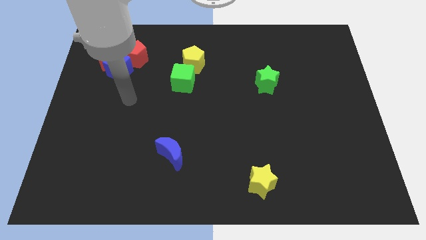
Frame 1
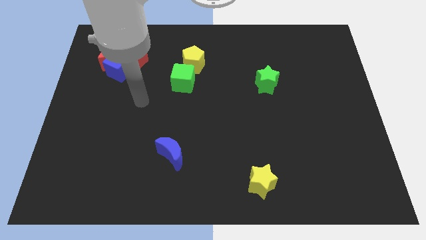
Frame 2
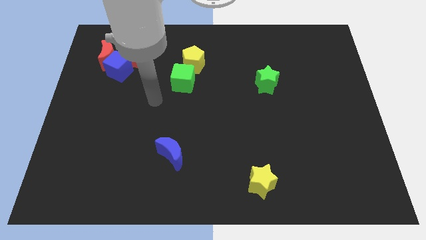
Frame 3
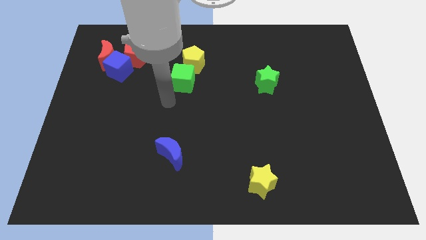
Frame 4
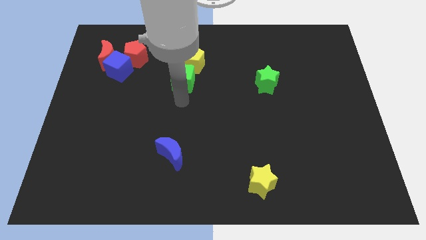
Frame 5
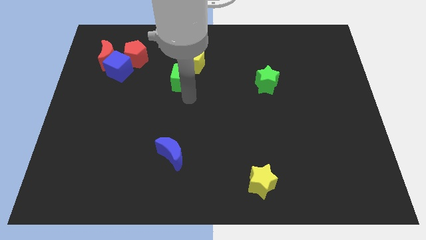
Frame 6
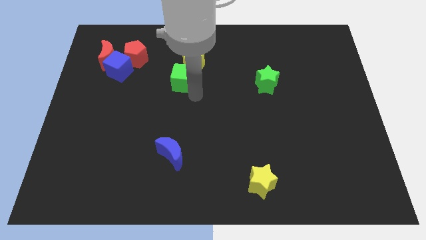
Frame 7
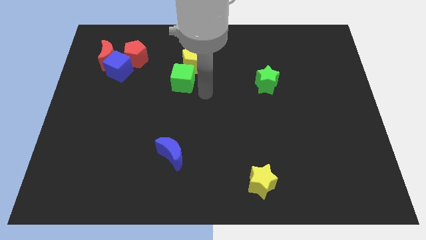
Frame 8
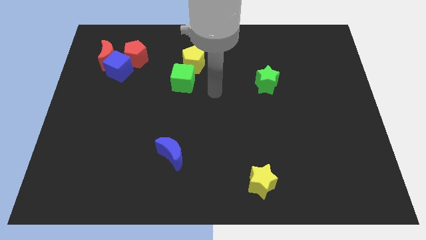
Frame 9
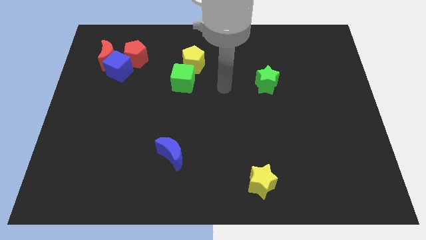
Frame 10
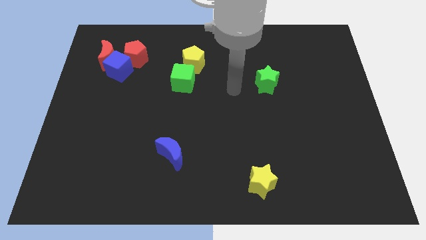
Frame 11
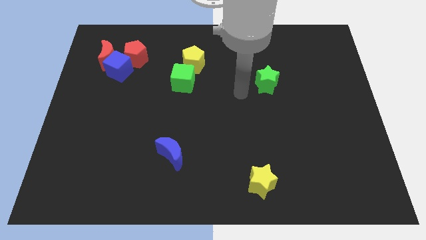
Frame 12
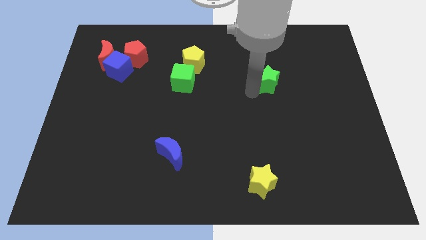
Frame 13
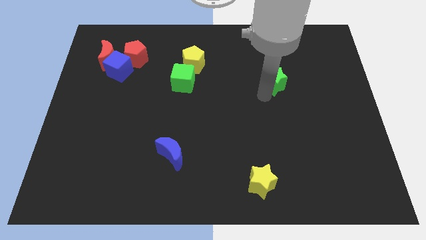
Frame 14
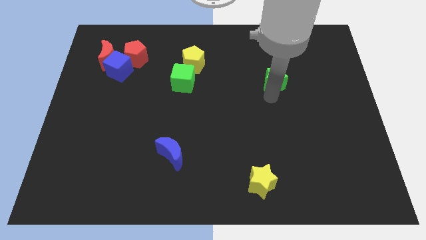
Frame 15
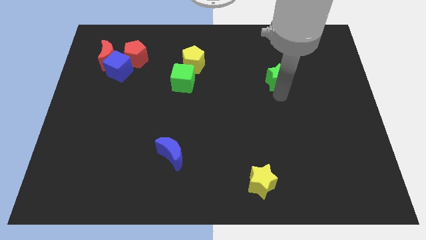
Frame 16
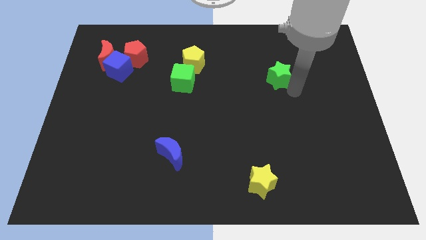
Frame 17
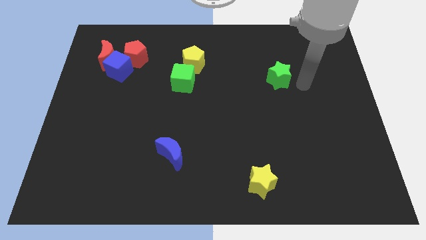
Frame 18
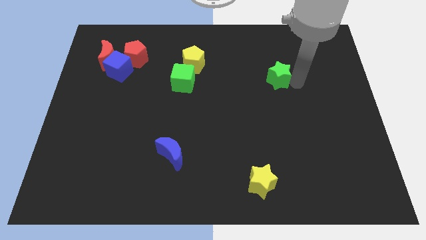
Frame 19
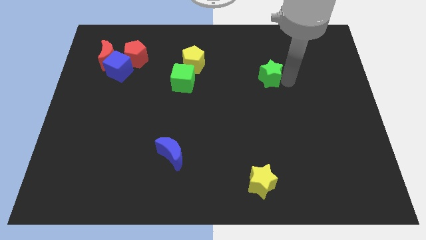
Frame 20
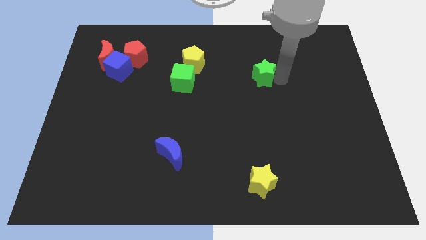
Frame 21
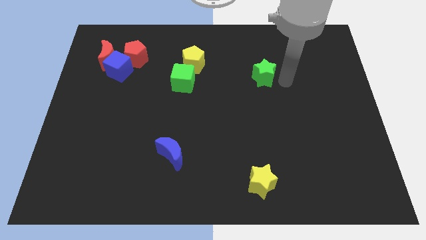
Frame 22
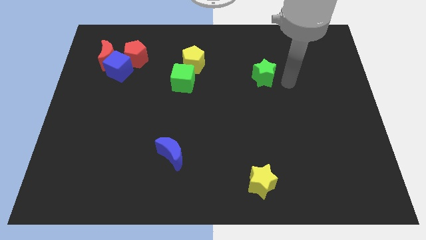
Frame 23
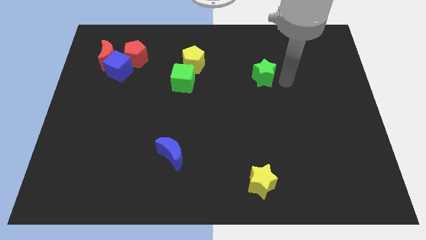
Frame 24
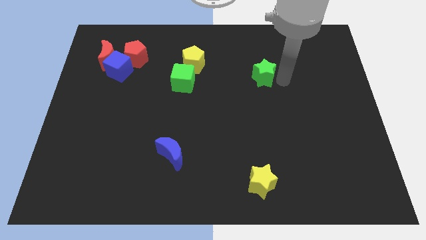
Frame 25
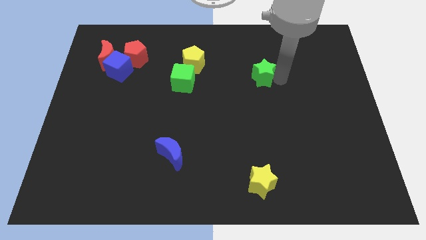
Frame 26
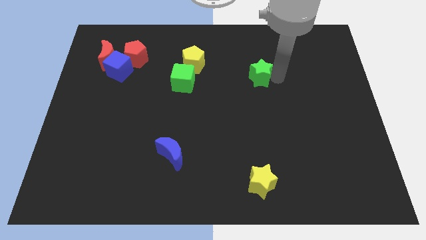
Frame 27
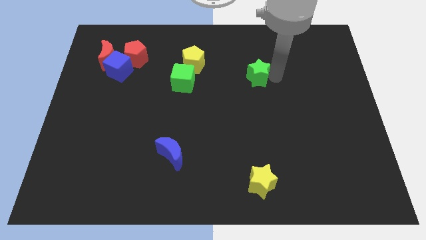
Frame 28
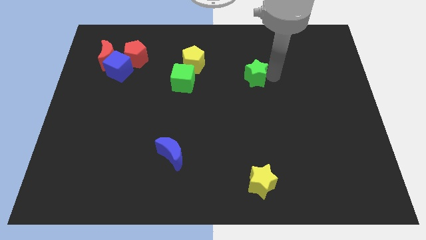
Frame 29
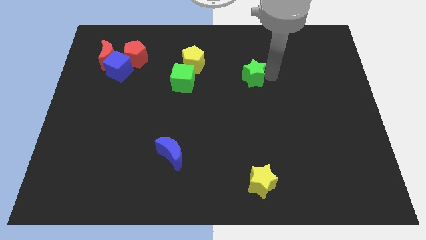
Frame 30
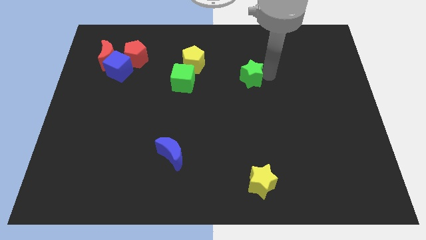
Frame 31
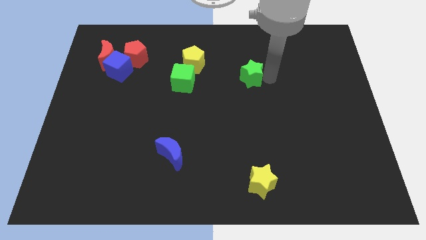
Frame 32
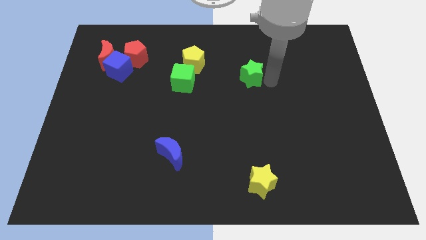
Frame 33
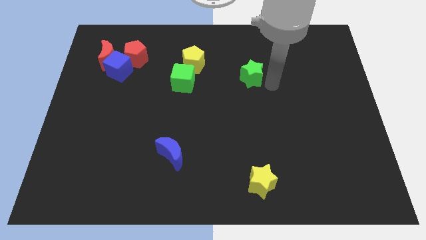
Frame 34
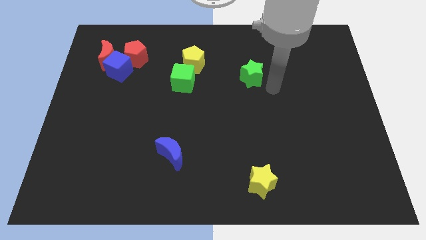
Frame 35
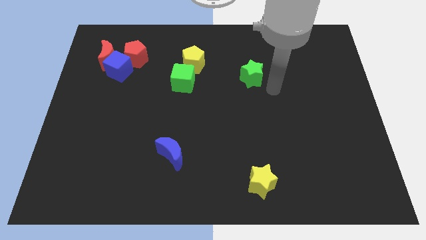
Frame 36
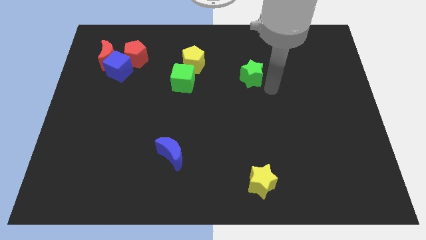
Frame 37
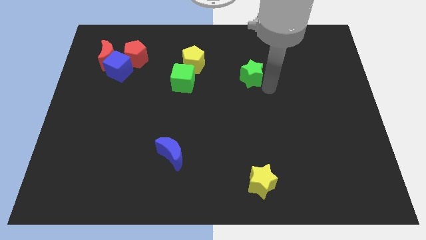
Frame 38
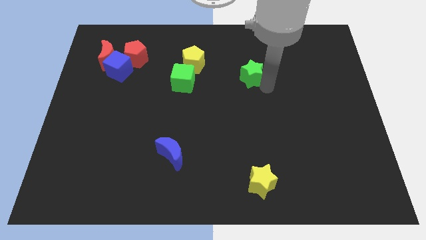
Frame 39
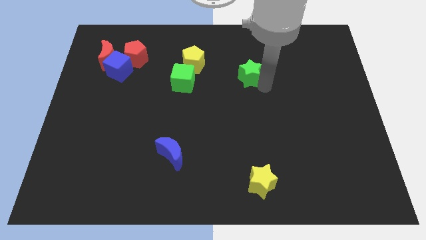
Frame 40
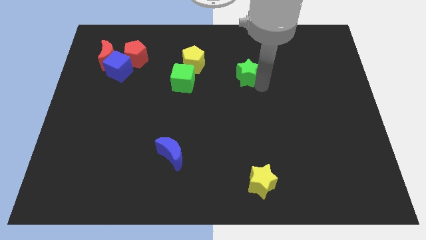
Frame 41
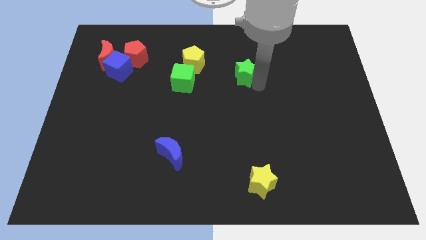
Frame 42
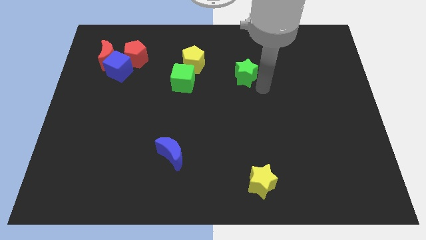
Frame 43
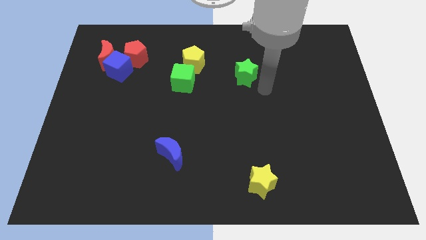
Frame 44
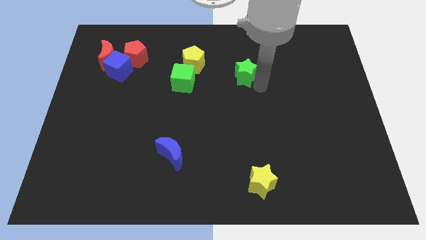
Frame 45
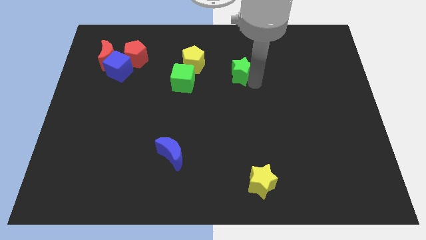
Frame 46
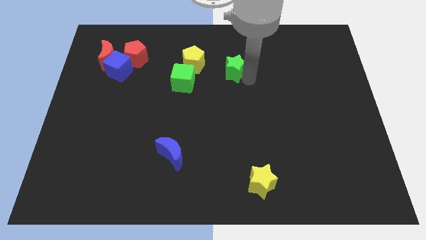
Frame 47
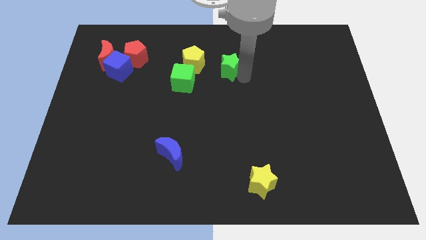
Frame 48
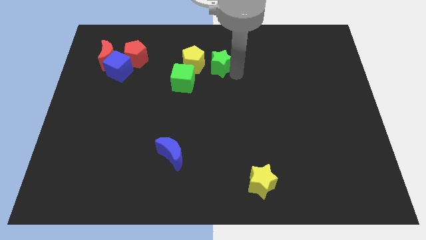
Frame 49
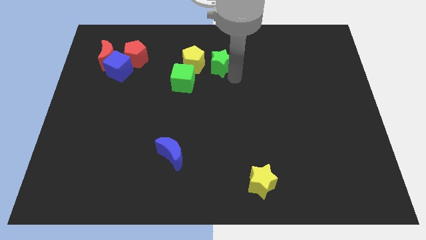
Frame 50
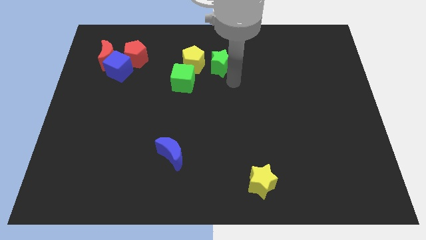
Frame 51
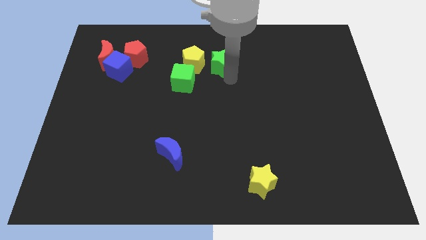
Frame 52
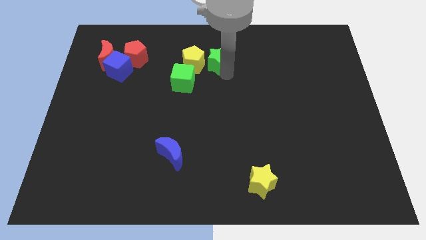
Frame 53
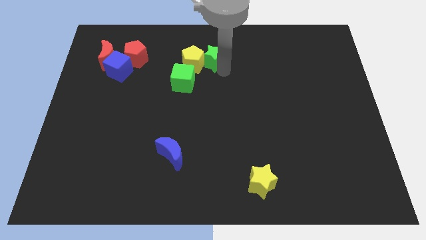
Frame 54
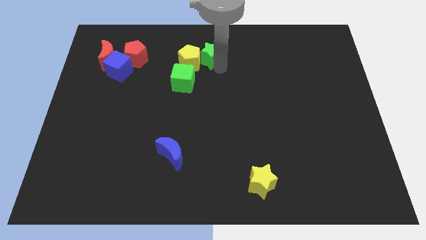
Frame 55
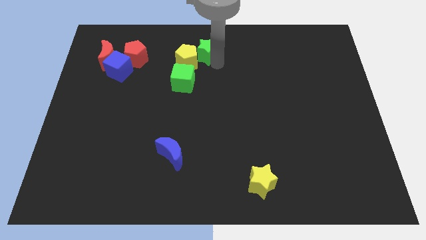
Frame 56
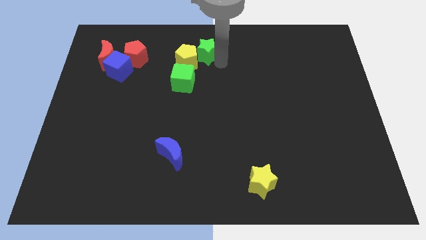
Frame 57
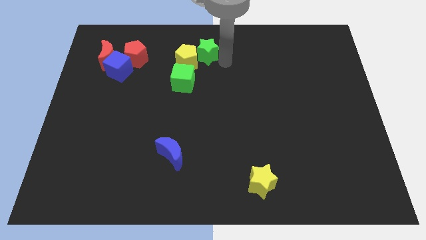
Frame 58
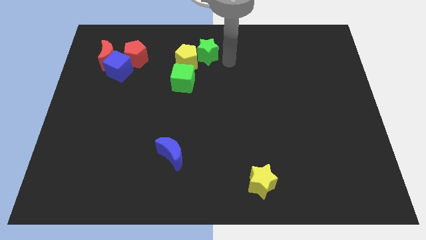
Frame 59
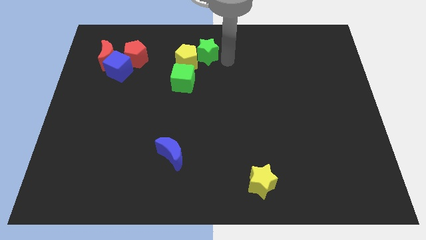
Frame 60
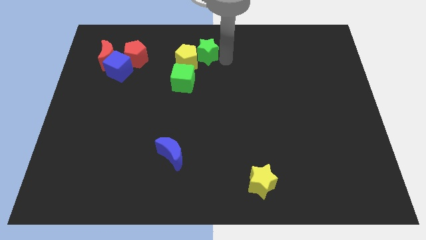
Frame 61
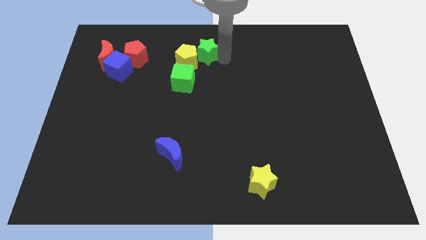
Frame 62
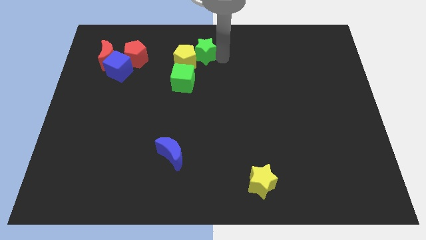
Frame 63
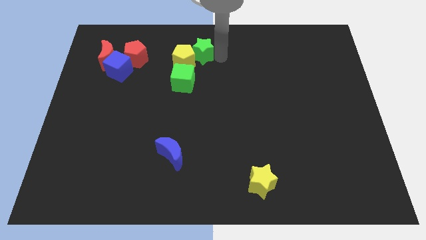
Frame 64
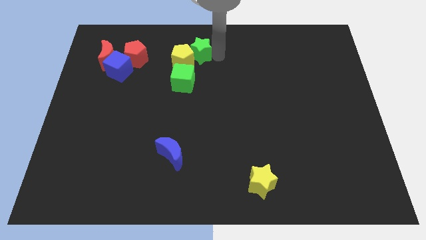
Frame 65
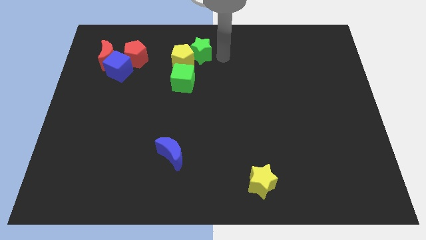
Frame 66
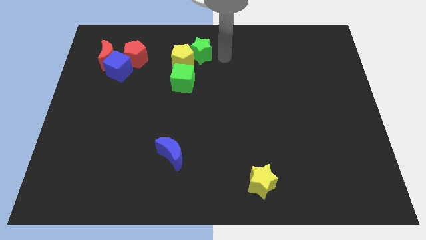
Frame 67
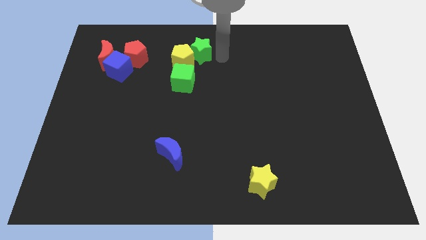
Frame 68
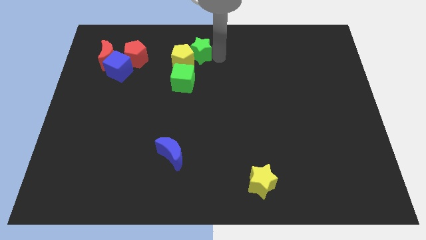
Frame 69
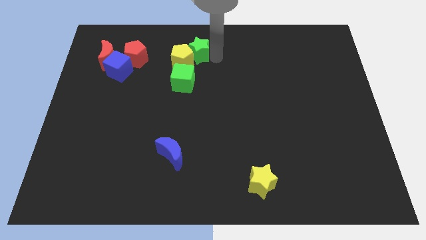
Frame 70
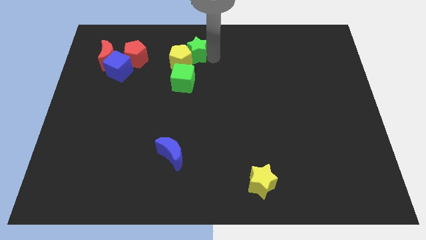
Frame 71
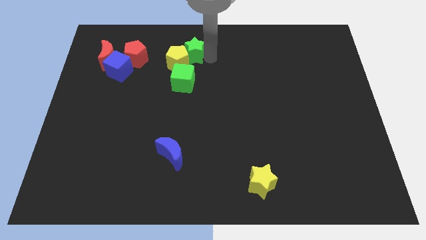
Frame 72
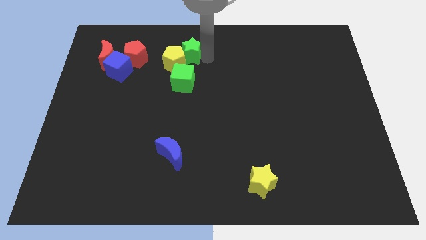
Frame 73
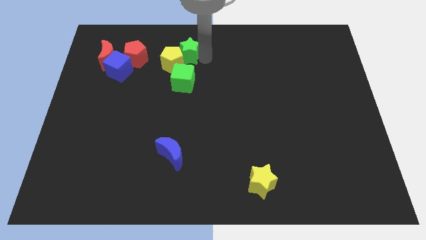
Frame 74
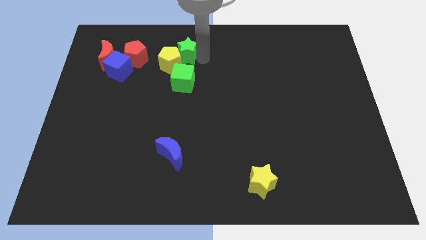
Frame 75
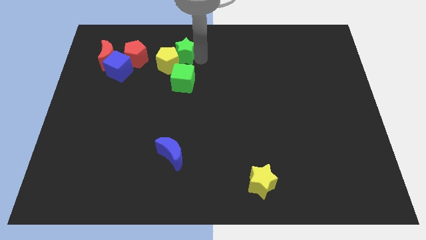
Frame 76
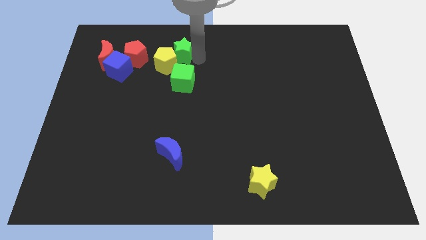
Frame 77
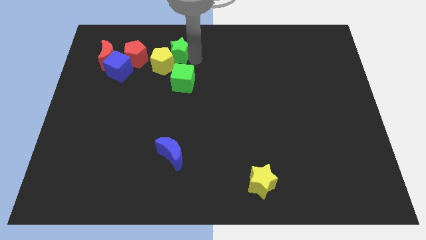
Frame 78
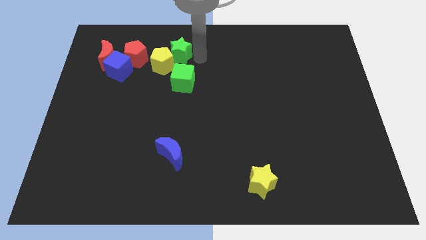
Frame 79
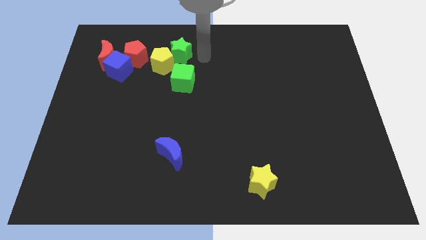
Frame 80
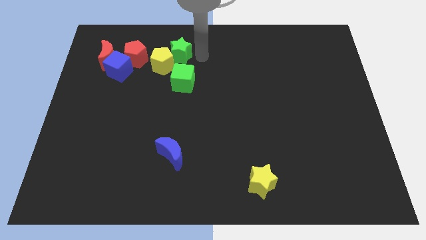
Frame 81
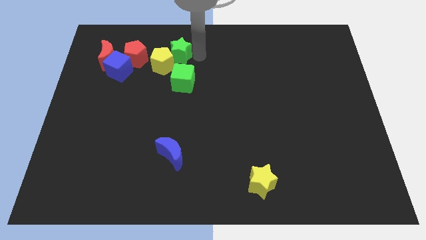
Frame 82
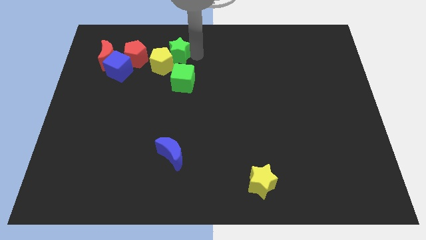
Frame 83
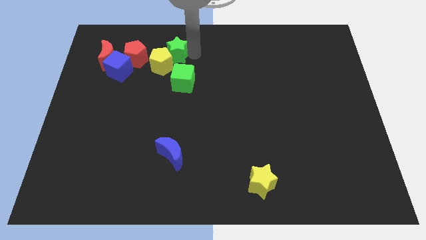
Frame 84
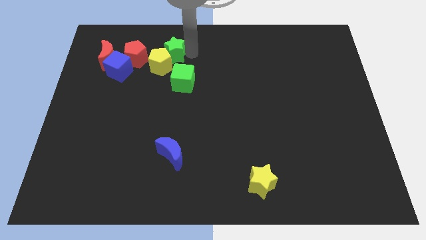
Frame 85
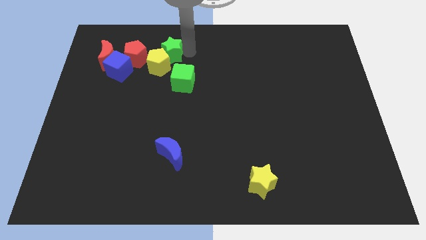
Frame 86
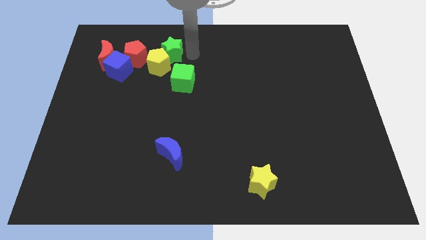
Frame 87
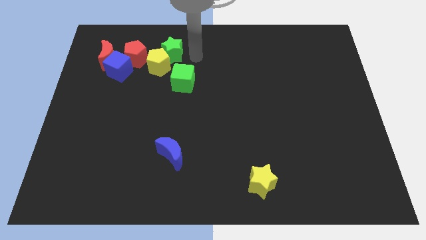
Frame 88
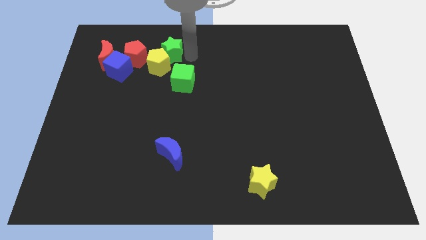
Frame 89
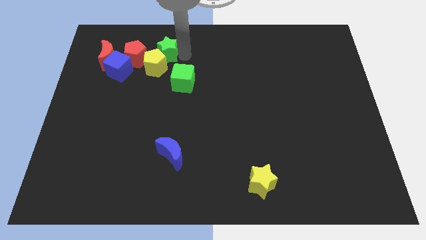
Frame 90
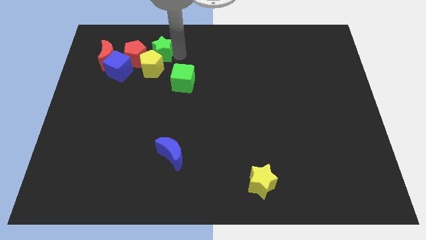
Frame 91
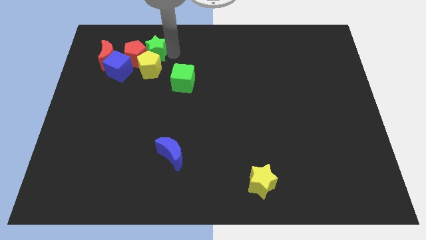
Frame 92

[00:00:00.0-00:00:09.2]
put the green star close to the red pentagon
